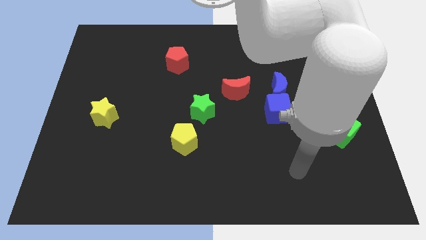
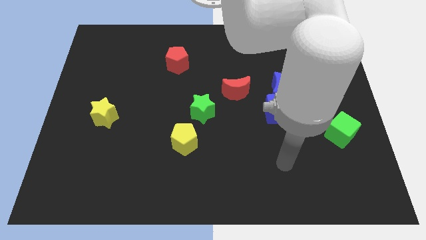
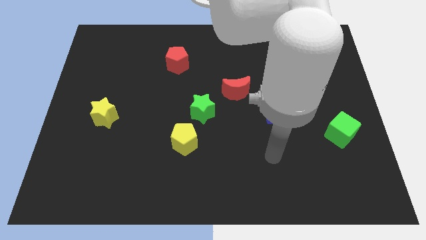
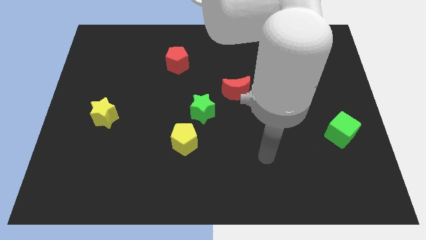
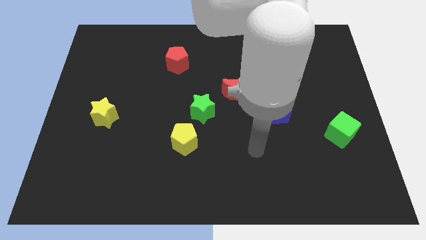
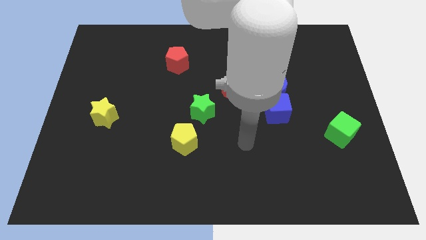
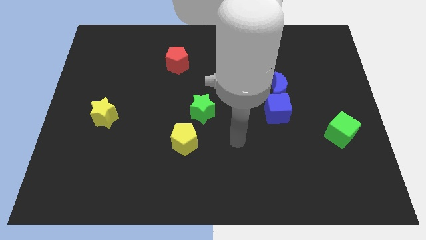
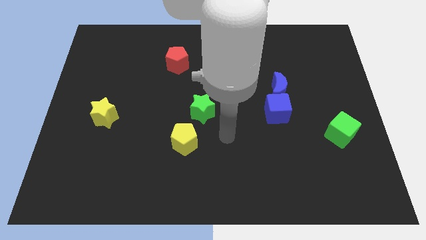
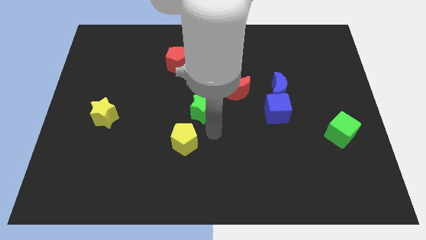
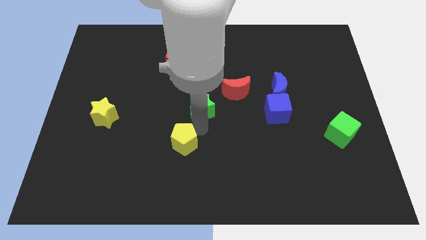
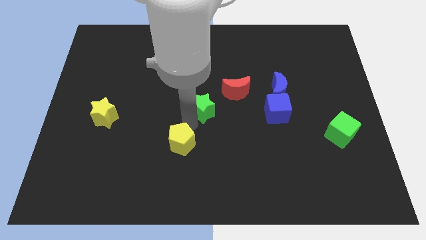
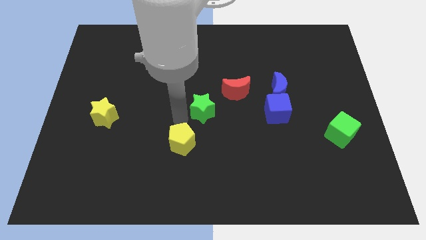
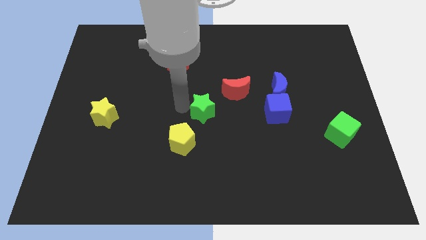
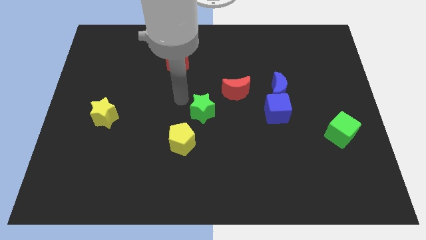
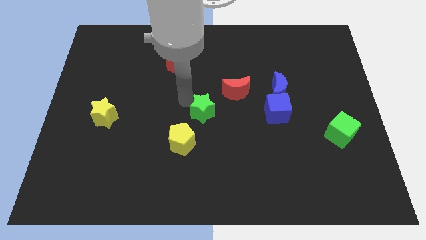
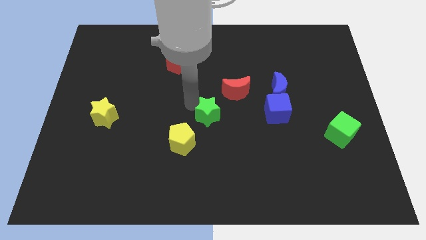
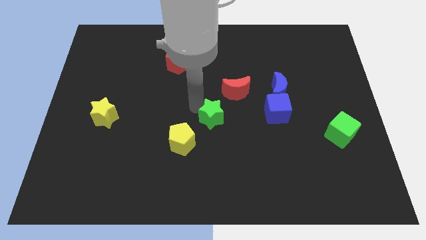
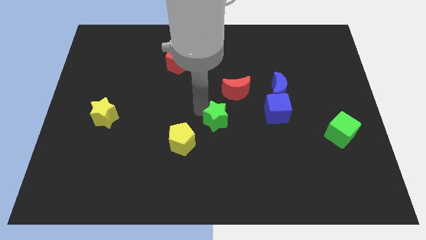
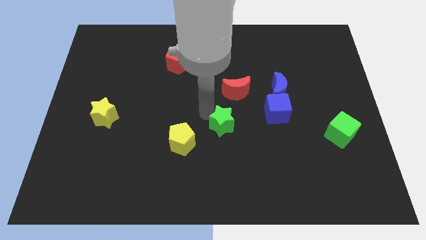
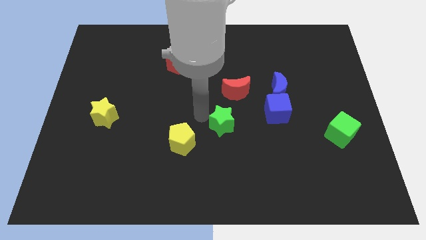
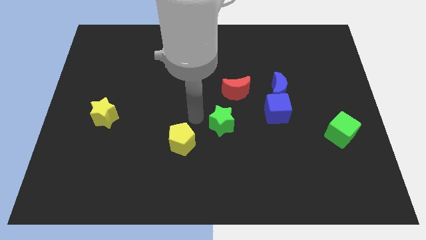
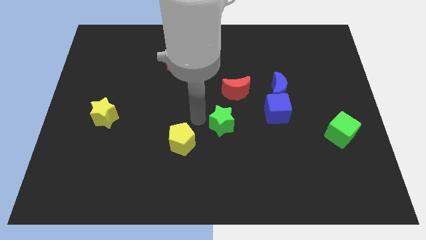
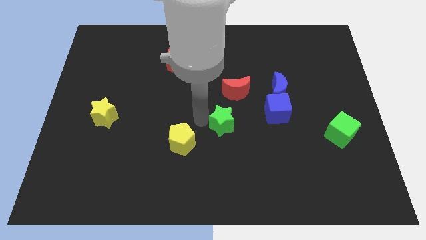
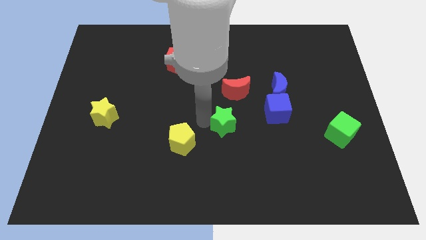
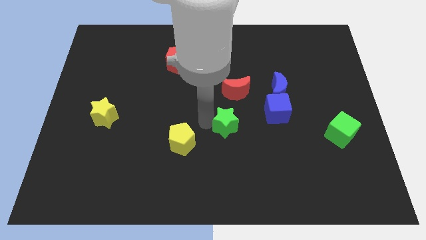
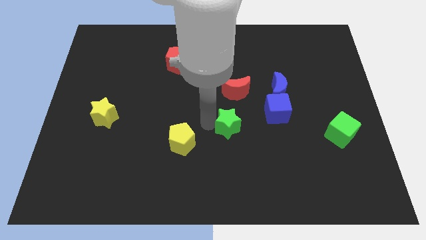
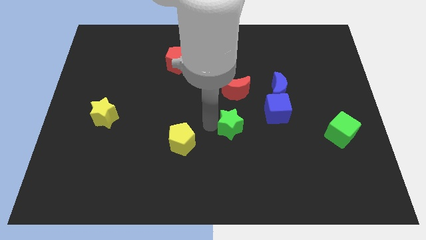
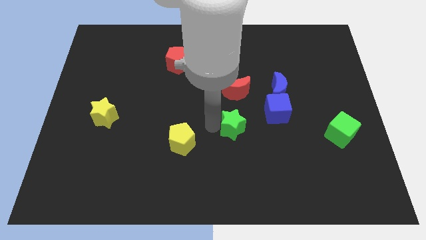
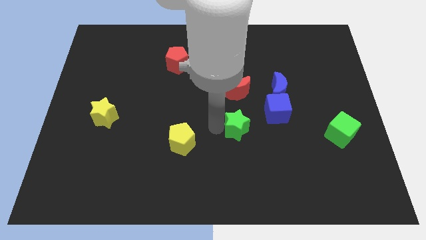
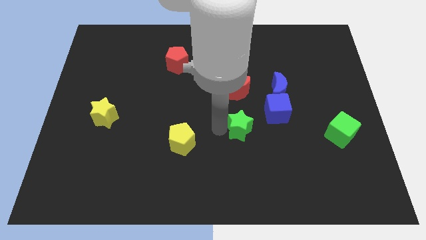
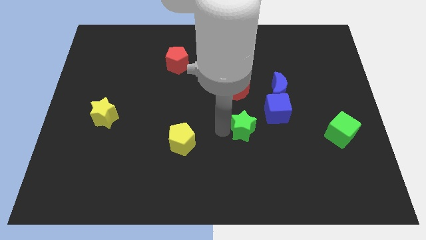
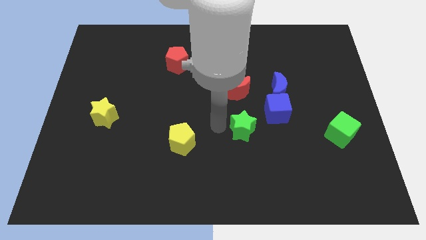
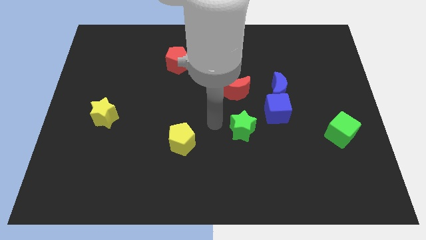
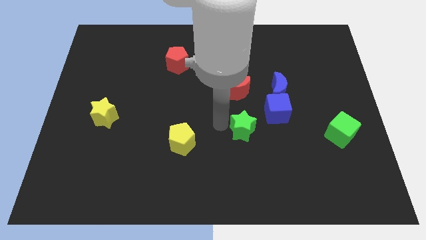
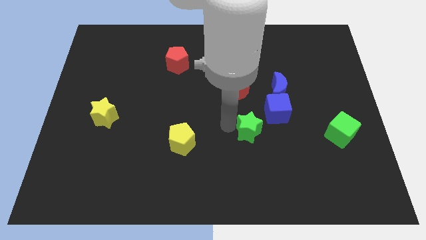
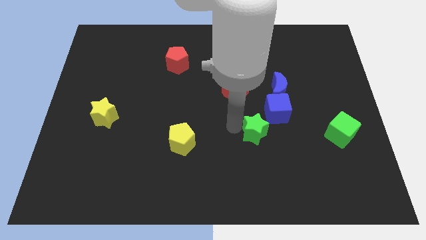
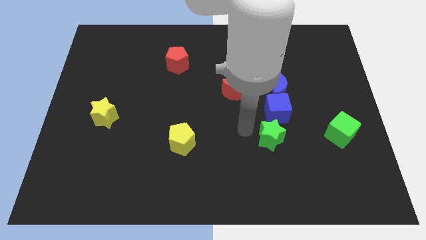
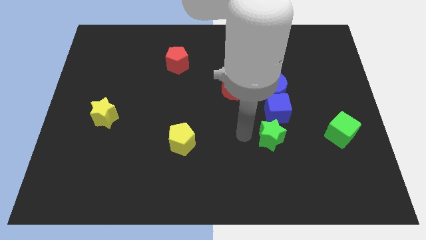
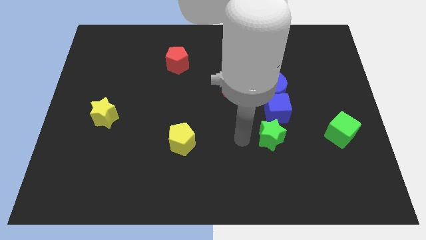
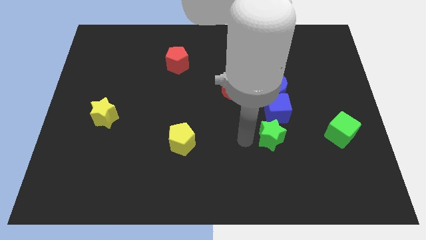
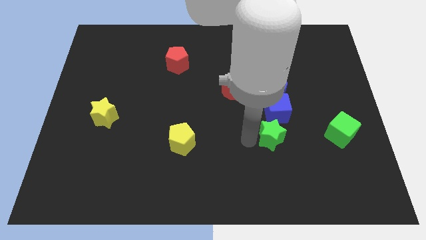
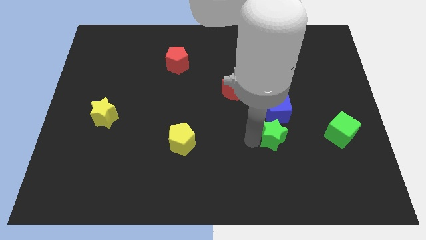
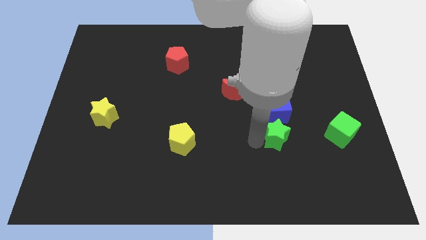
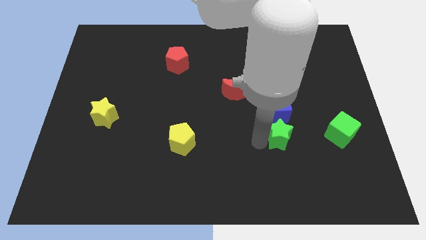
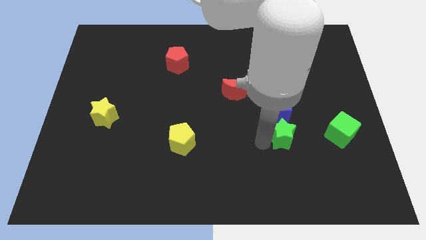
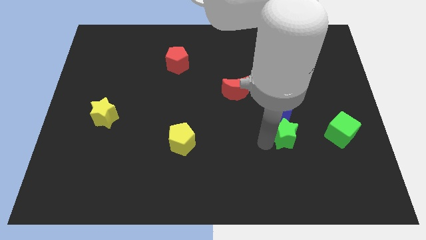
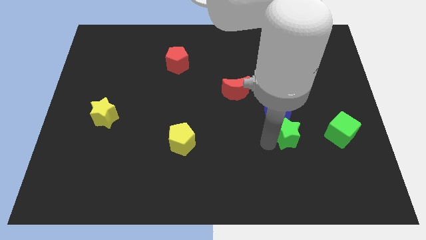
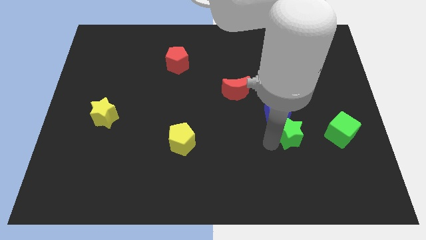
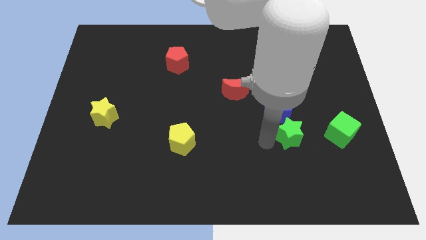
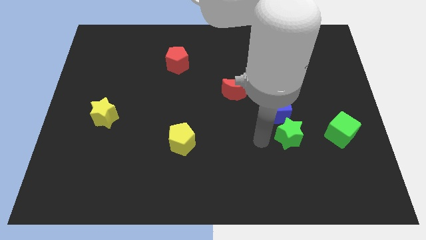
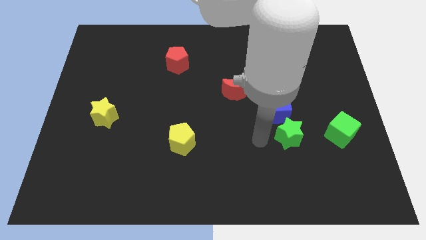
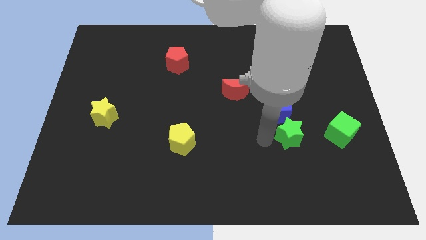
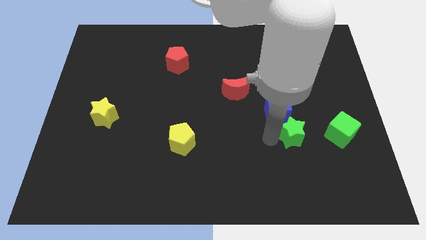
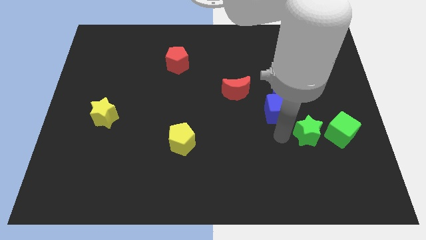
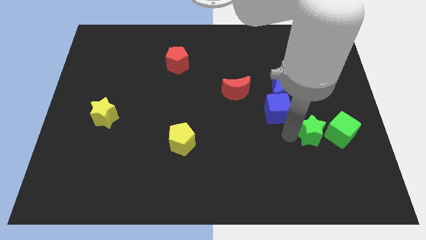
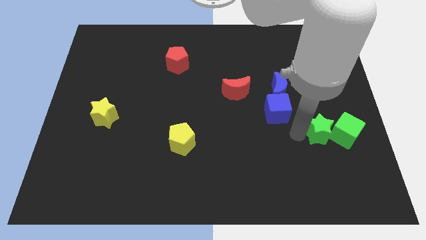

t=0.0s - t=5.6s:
put the green star to the green cube

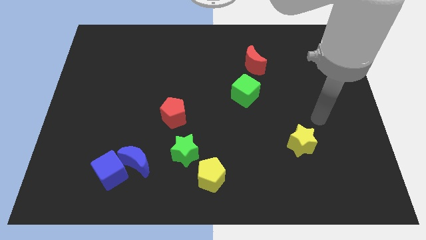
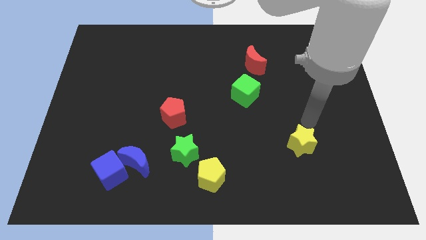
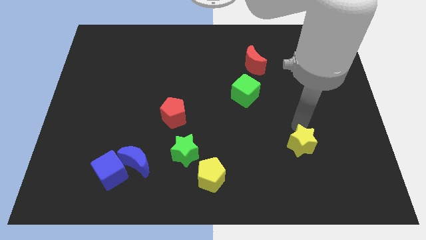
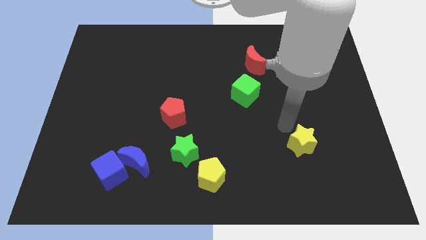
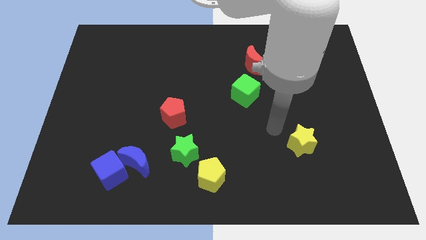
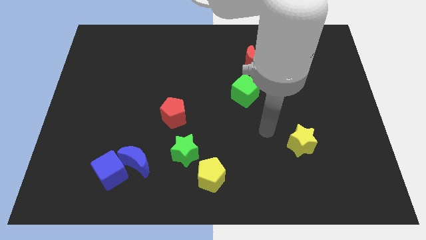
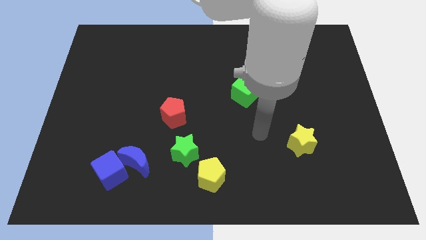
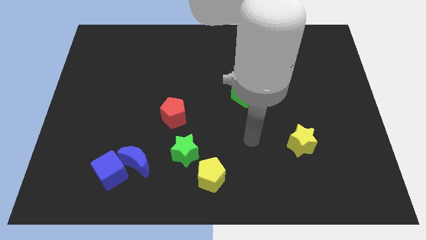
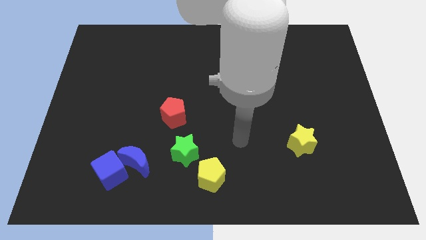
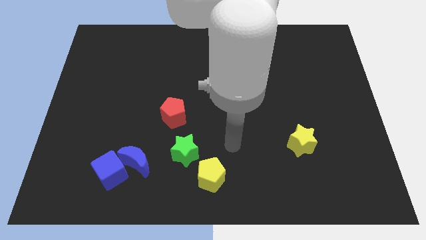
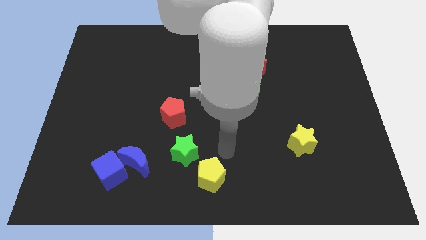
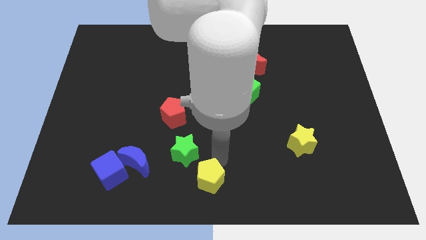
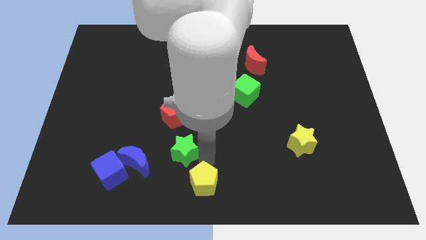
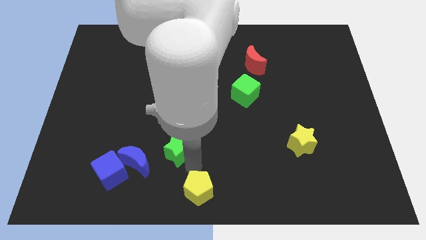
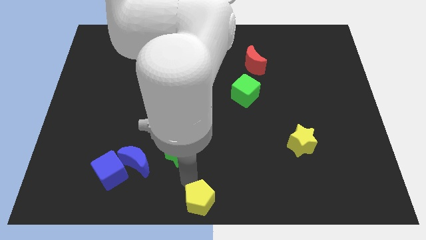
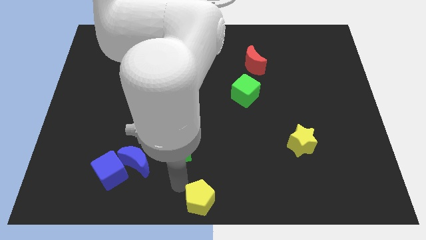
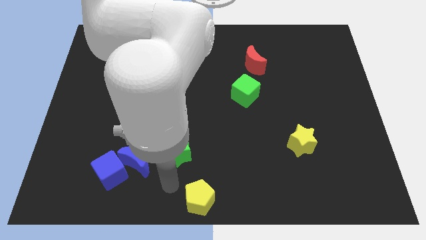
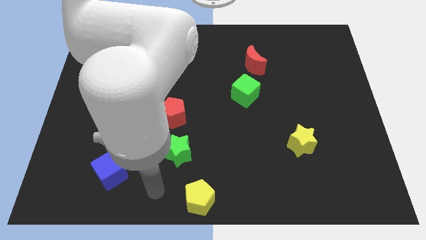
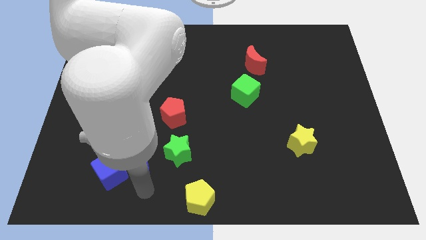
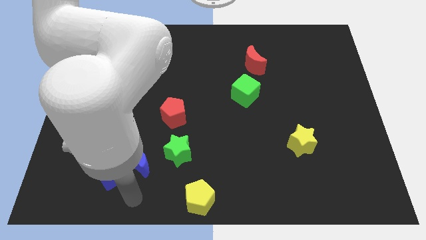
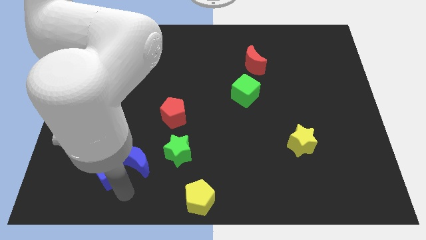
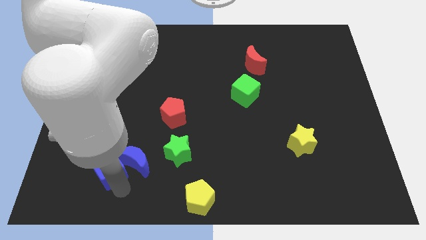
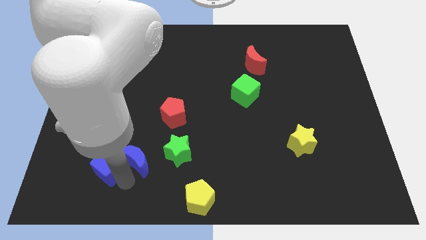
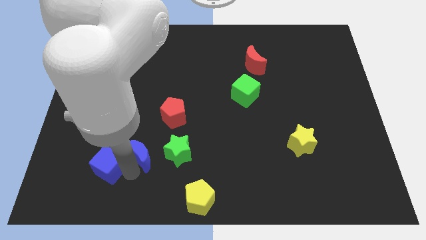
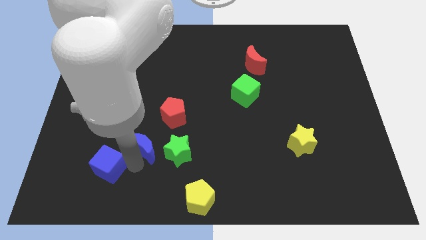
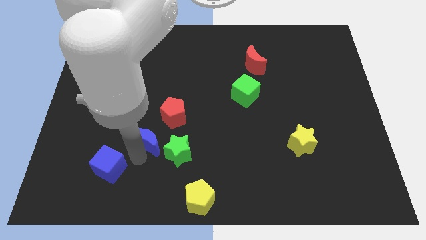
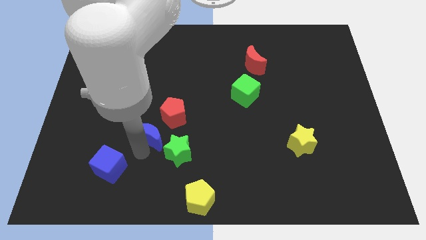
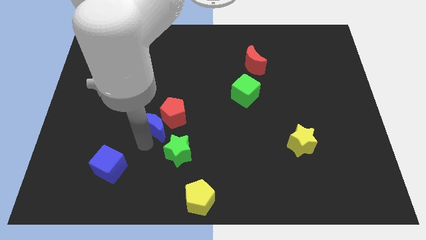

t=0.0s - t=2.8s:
slide the blue moon to the red pentagon
